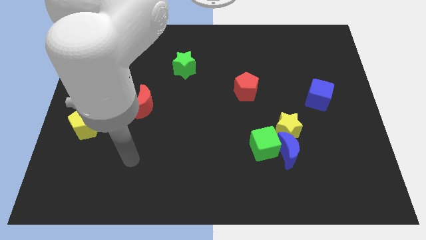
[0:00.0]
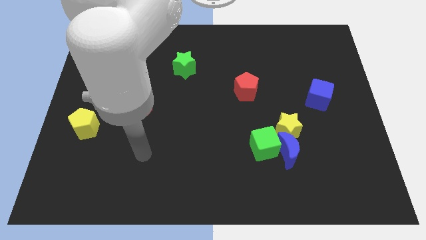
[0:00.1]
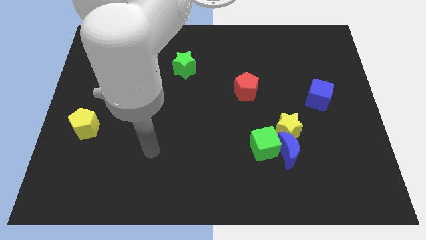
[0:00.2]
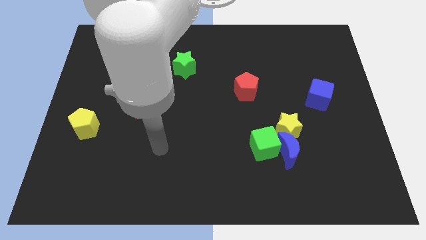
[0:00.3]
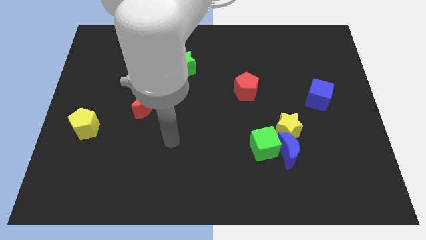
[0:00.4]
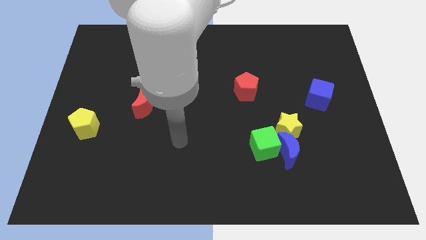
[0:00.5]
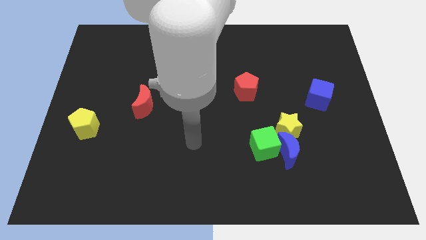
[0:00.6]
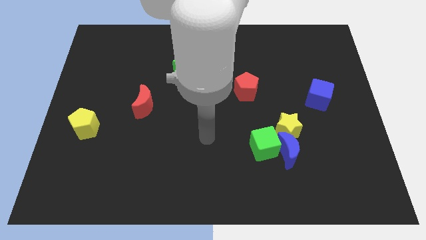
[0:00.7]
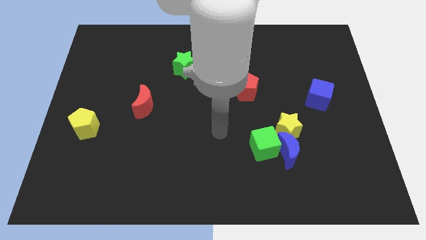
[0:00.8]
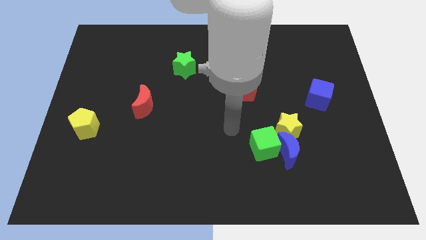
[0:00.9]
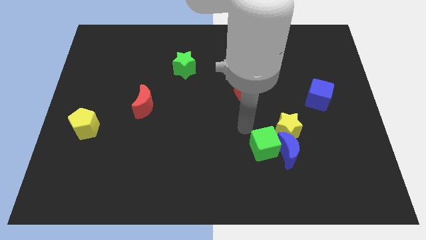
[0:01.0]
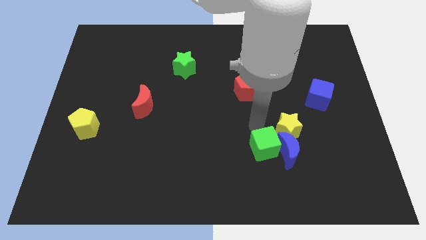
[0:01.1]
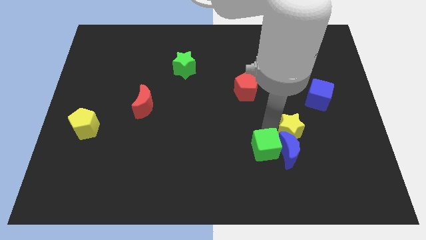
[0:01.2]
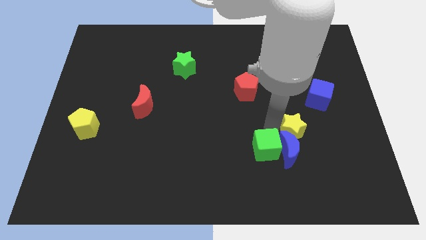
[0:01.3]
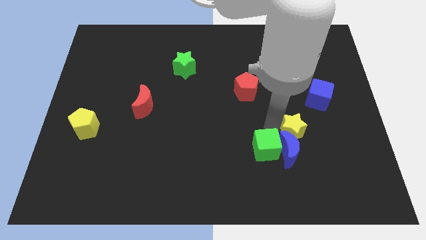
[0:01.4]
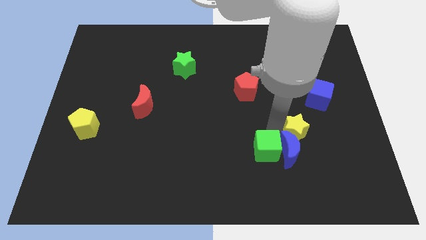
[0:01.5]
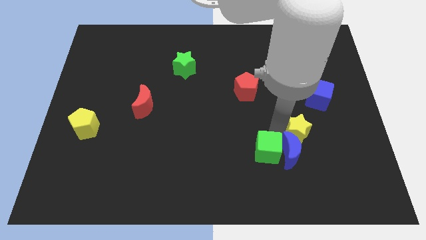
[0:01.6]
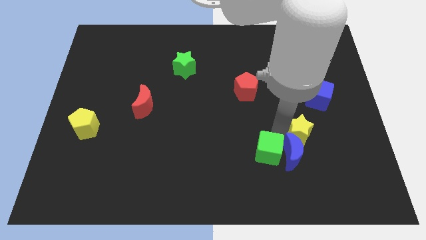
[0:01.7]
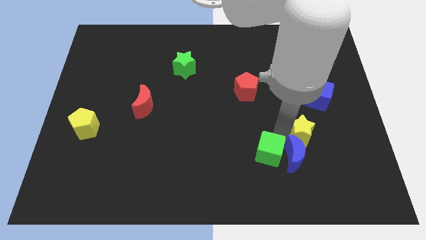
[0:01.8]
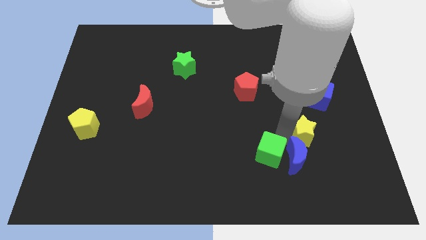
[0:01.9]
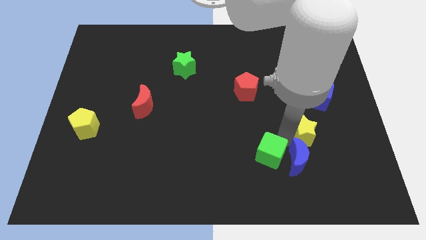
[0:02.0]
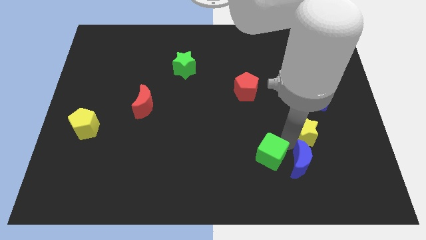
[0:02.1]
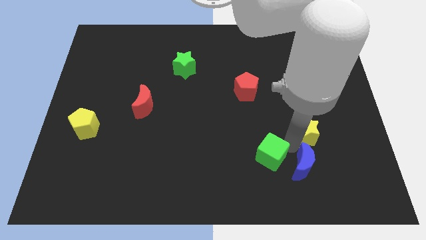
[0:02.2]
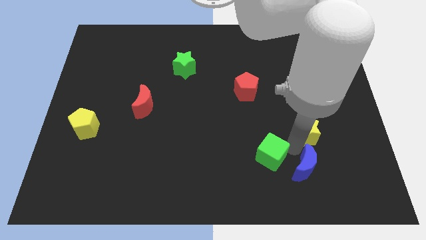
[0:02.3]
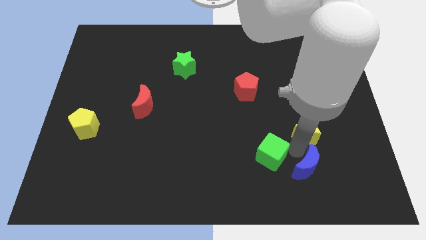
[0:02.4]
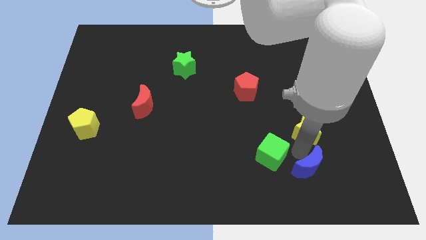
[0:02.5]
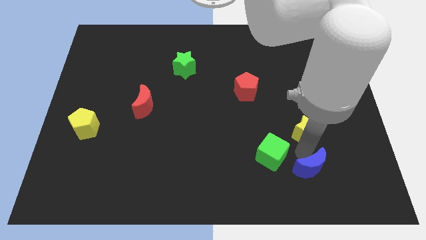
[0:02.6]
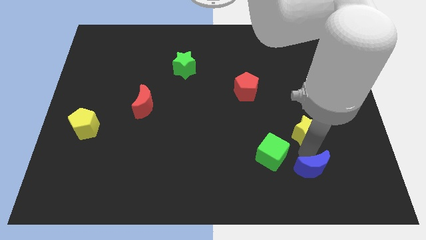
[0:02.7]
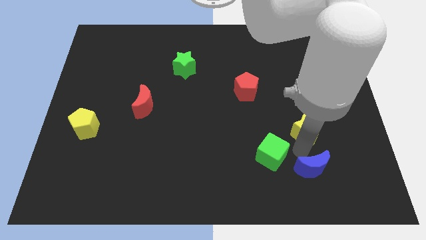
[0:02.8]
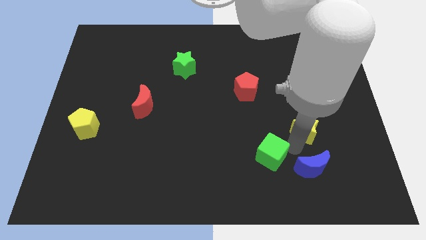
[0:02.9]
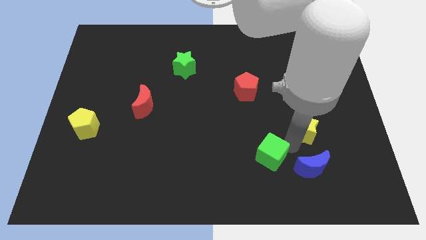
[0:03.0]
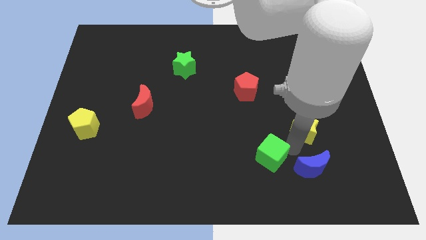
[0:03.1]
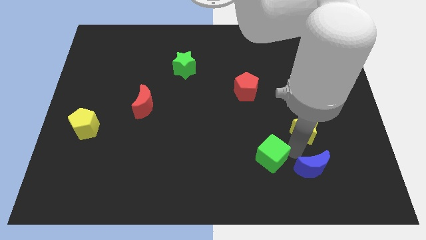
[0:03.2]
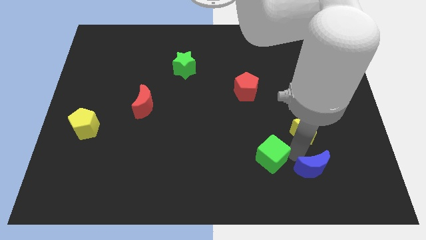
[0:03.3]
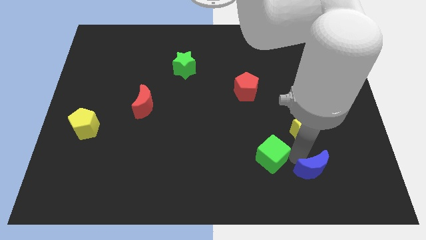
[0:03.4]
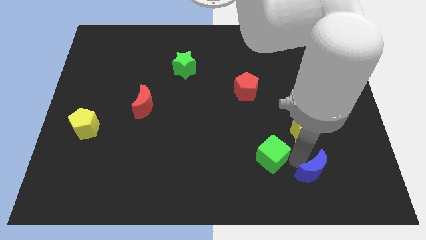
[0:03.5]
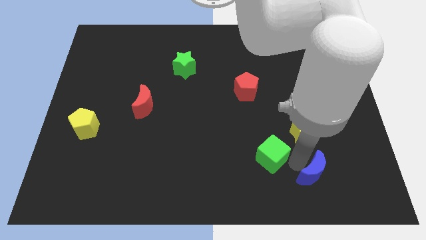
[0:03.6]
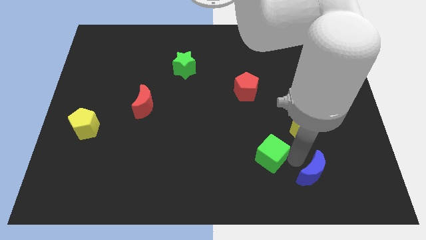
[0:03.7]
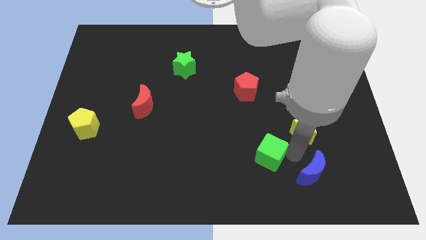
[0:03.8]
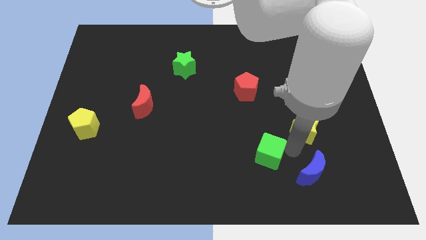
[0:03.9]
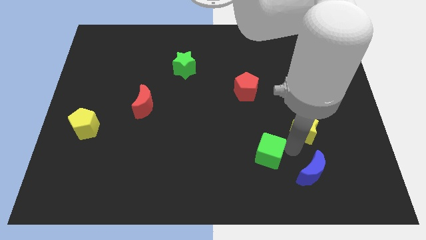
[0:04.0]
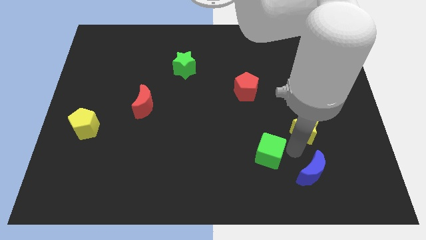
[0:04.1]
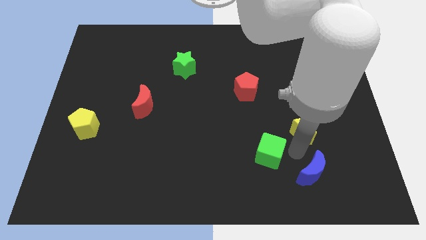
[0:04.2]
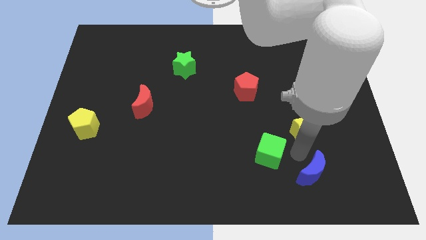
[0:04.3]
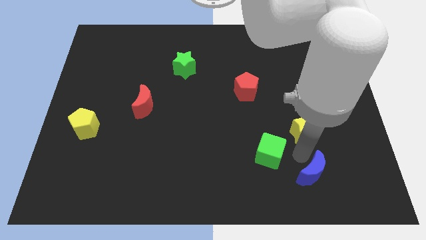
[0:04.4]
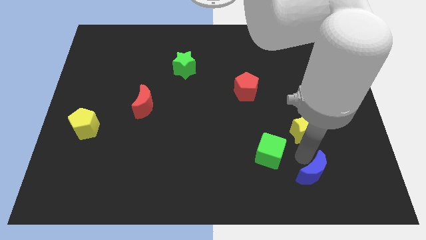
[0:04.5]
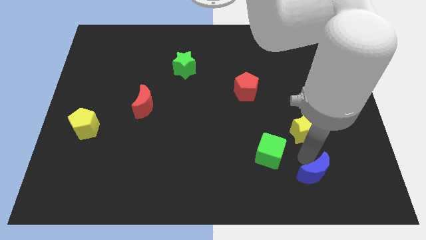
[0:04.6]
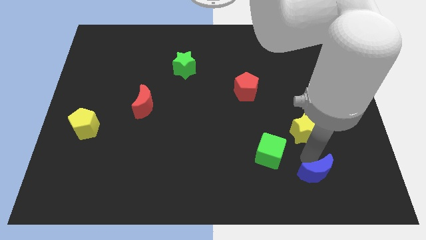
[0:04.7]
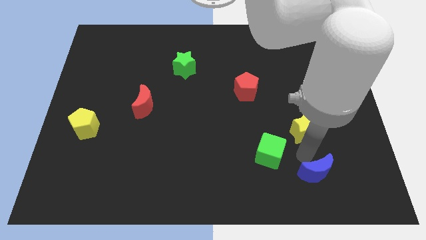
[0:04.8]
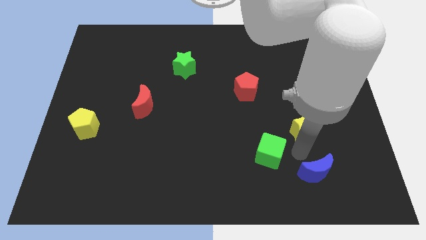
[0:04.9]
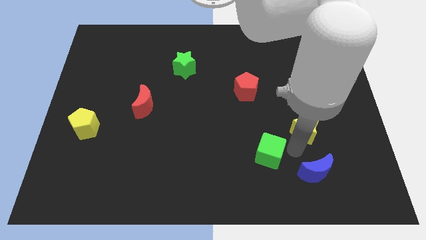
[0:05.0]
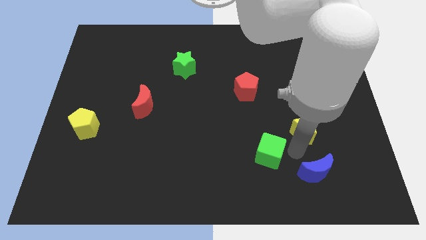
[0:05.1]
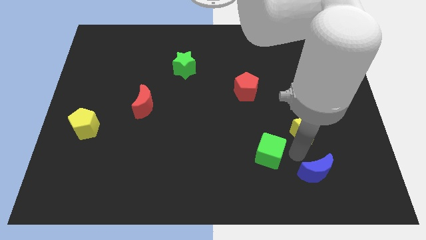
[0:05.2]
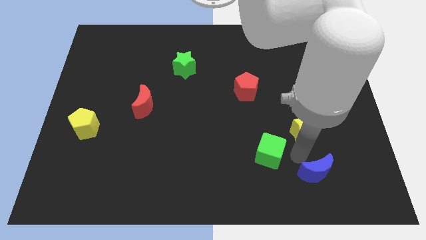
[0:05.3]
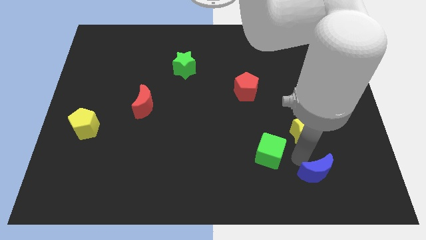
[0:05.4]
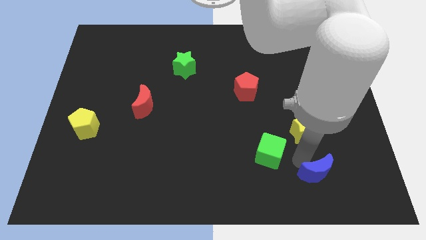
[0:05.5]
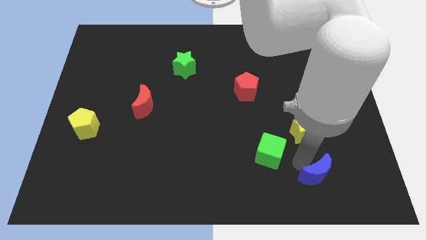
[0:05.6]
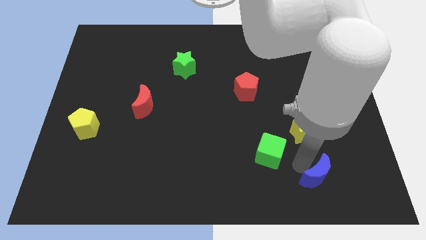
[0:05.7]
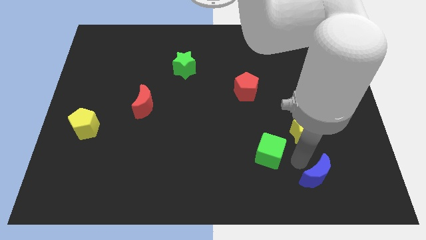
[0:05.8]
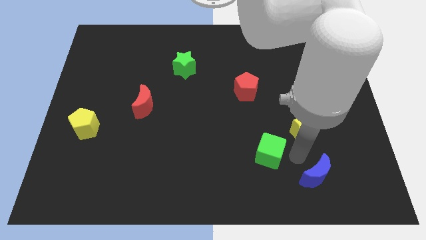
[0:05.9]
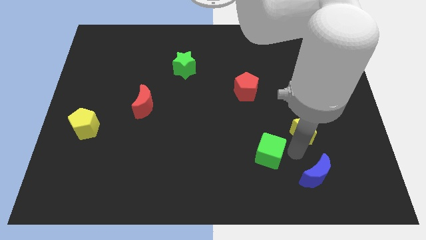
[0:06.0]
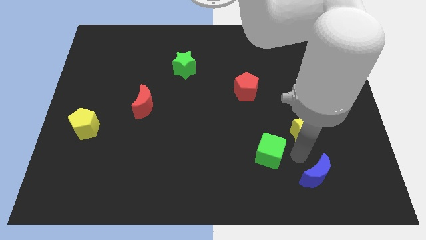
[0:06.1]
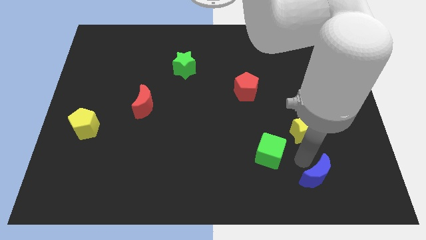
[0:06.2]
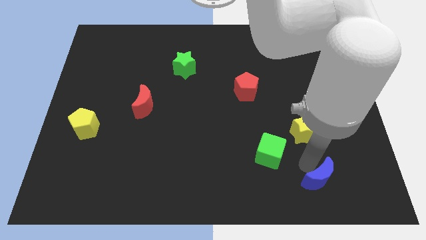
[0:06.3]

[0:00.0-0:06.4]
separate the blue moon from the green cube and yellow star

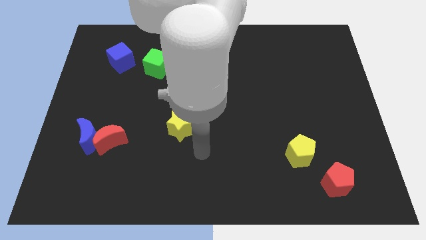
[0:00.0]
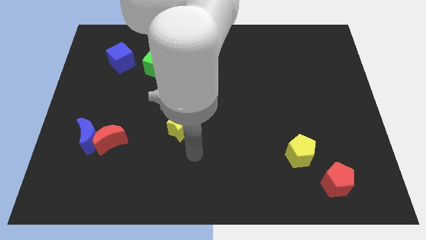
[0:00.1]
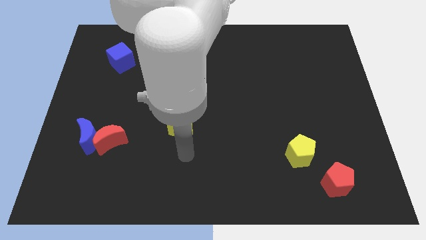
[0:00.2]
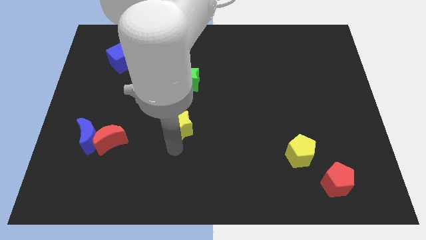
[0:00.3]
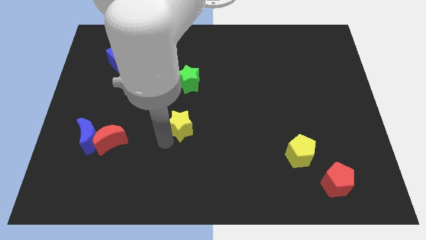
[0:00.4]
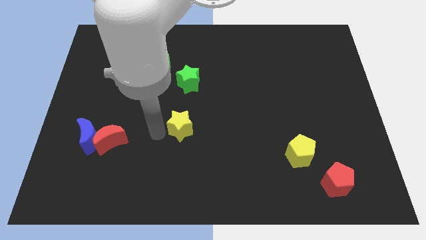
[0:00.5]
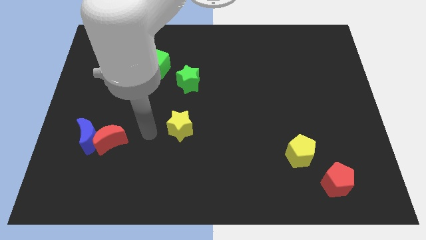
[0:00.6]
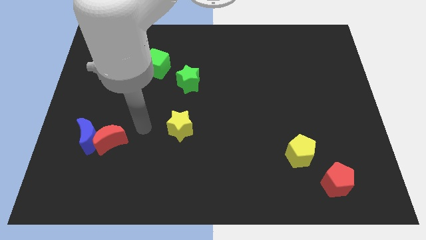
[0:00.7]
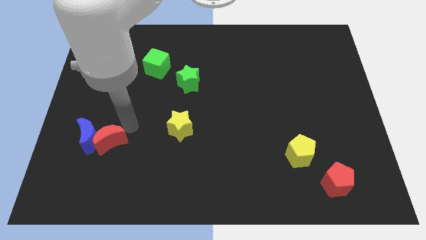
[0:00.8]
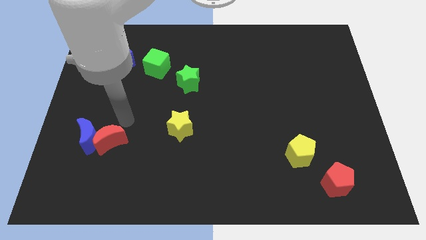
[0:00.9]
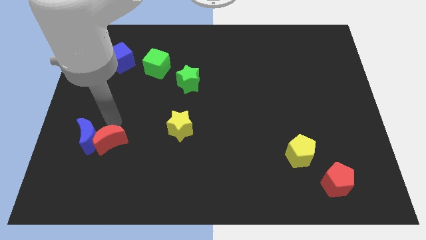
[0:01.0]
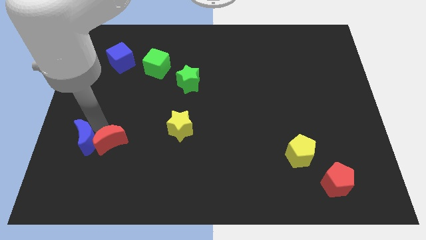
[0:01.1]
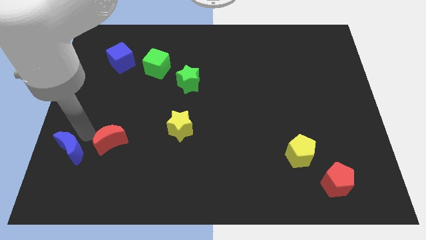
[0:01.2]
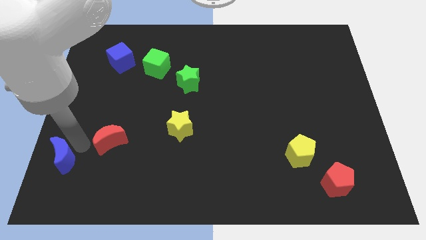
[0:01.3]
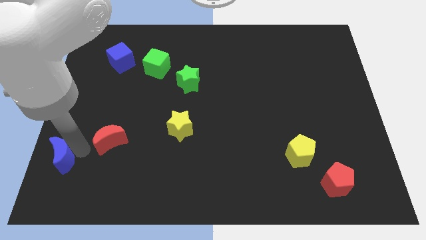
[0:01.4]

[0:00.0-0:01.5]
move the red moon away from the blue moon

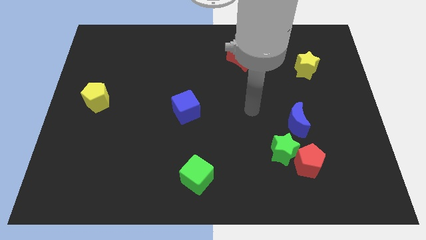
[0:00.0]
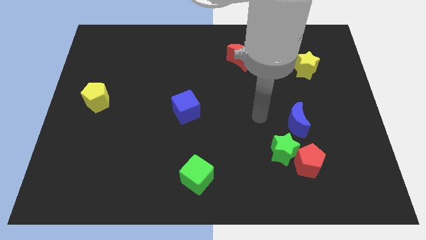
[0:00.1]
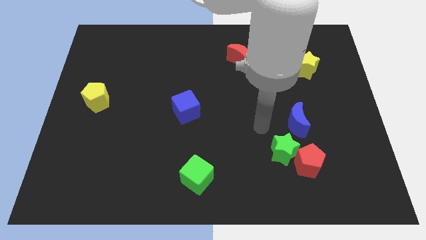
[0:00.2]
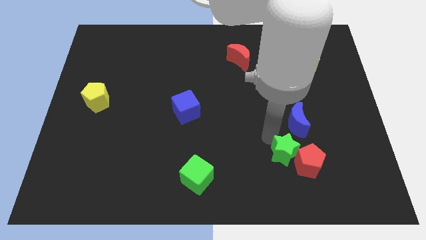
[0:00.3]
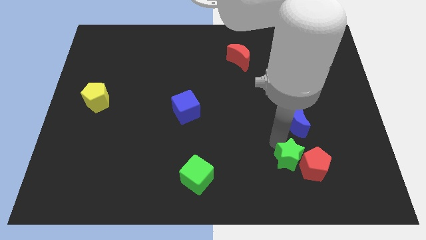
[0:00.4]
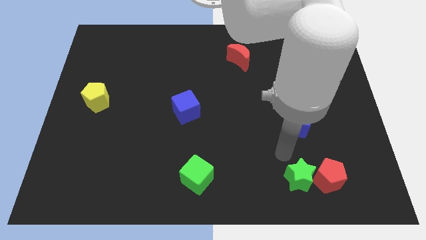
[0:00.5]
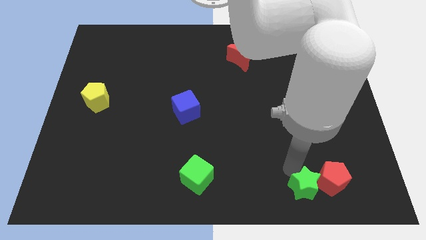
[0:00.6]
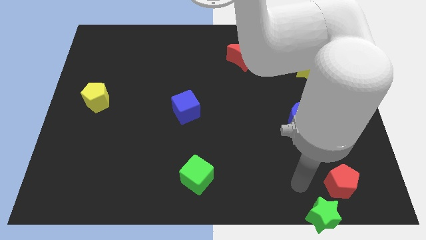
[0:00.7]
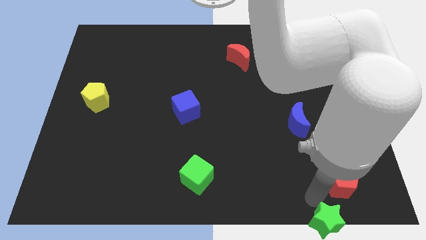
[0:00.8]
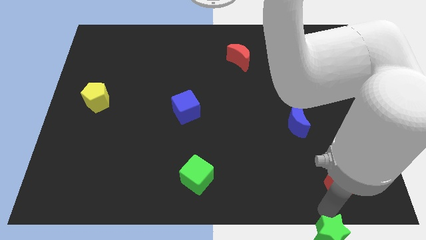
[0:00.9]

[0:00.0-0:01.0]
separate the red pentagon from the green star

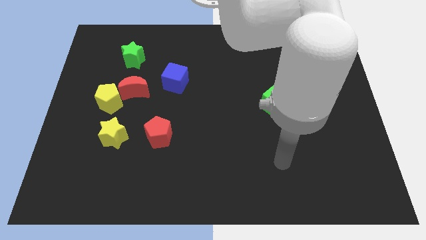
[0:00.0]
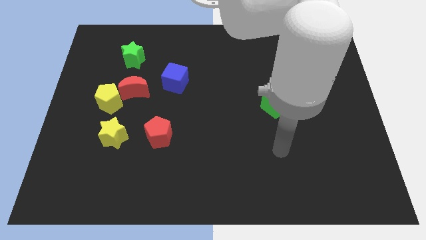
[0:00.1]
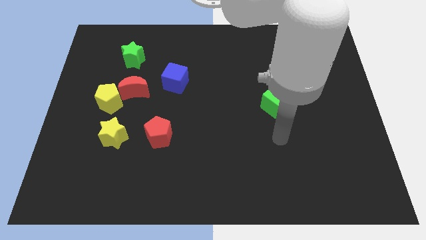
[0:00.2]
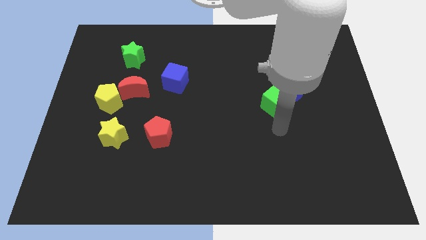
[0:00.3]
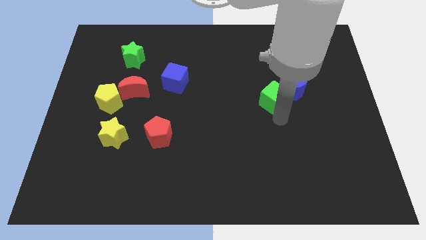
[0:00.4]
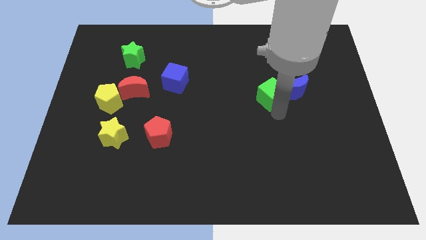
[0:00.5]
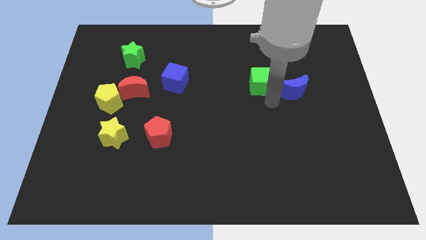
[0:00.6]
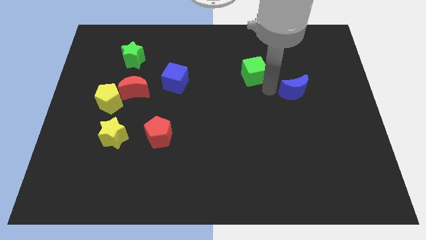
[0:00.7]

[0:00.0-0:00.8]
separate the blue moon from the green cube
